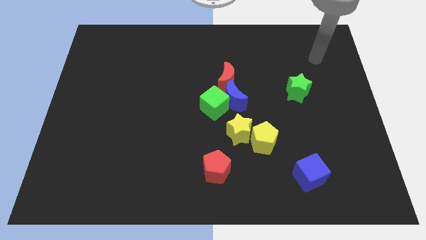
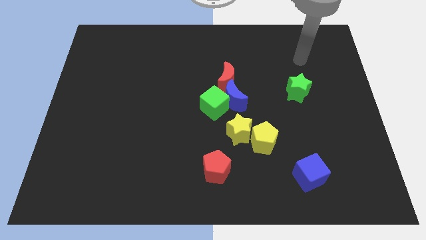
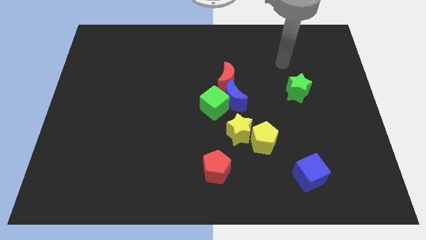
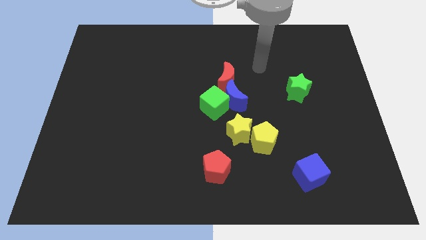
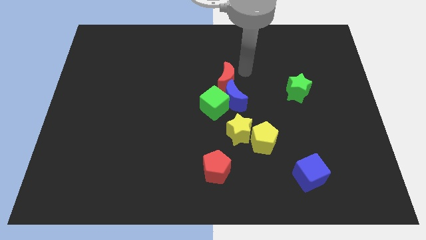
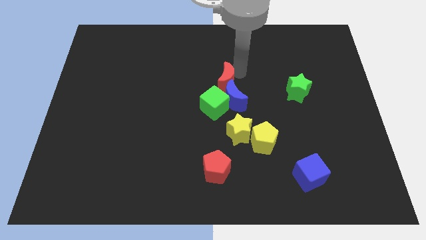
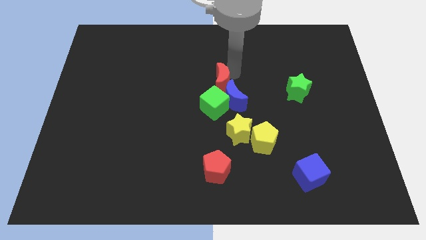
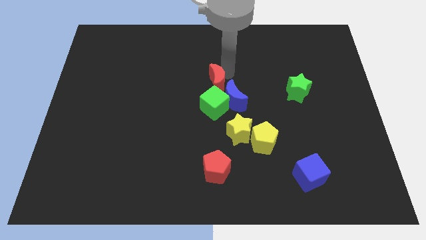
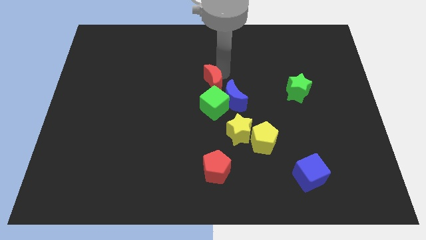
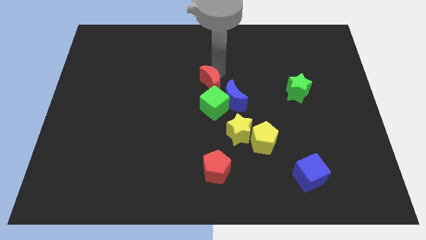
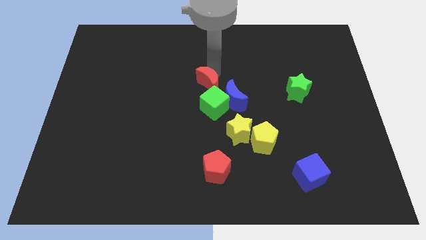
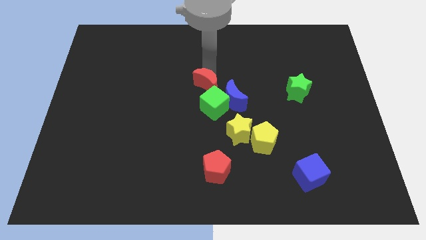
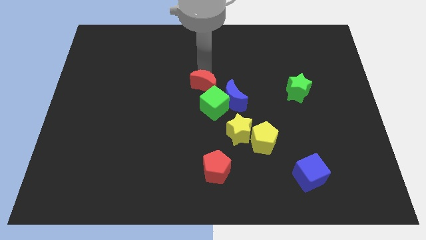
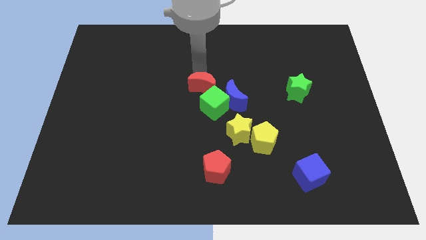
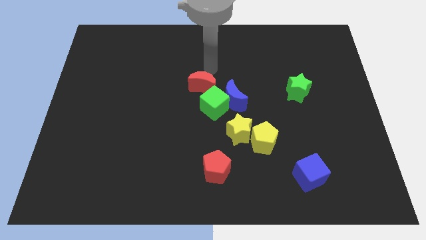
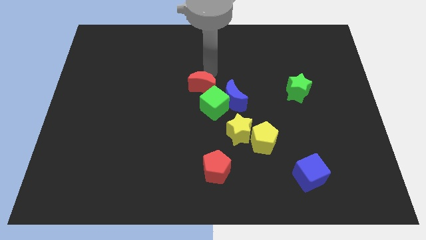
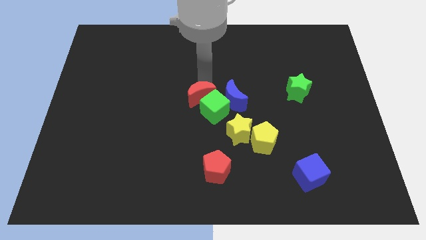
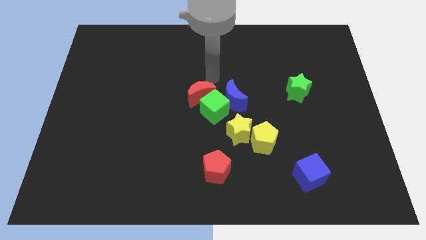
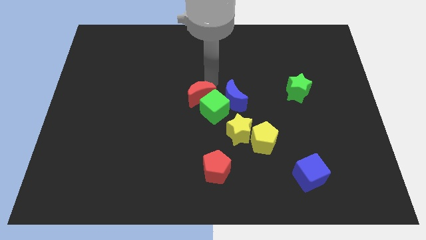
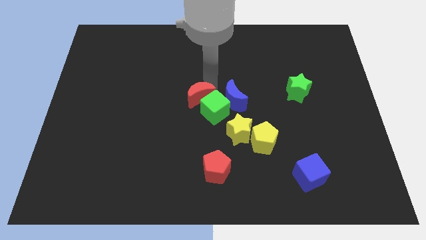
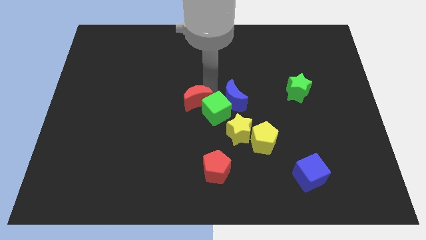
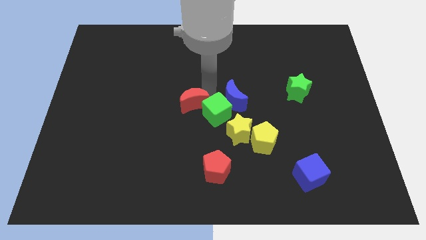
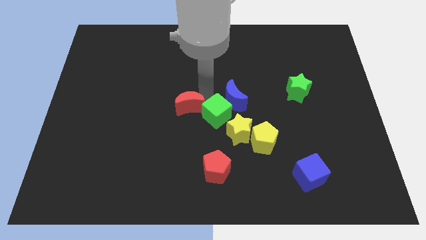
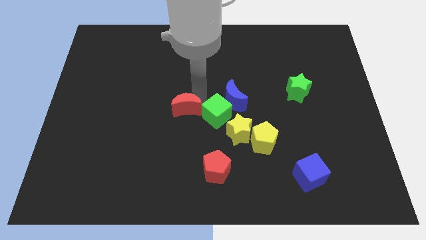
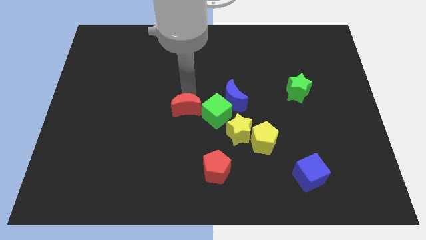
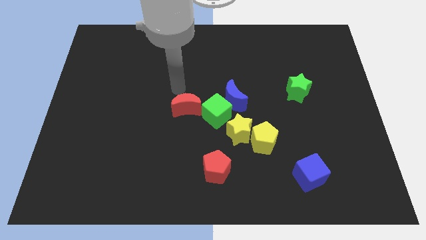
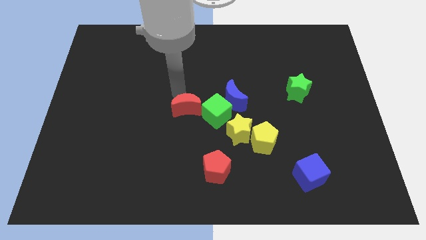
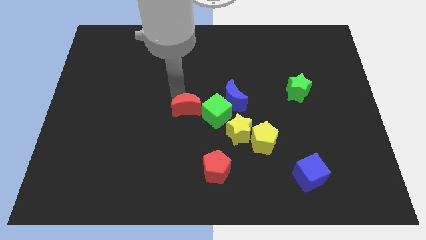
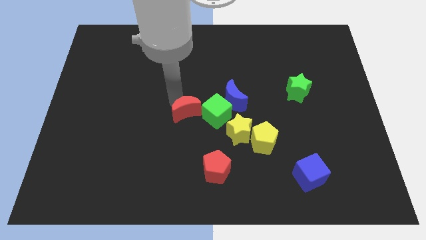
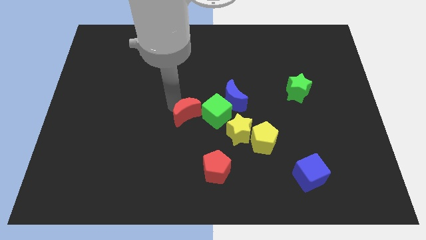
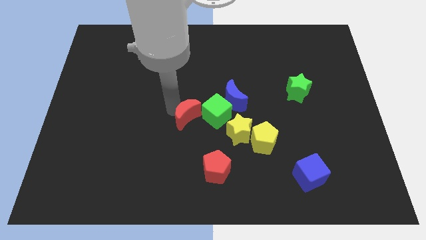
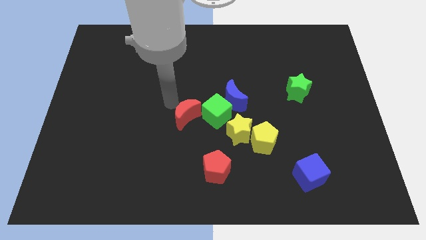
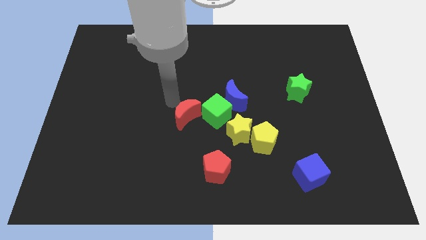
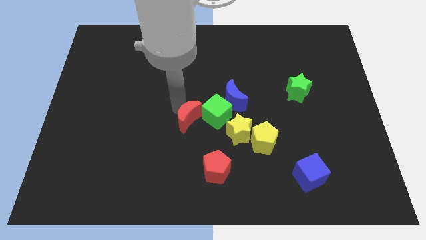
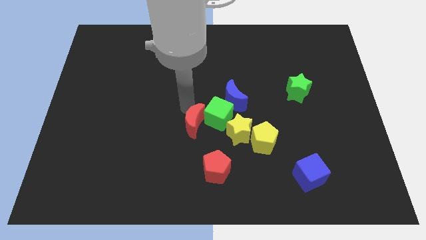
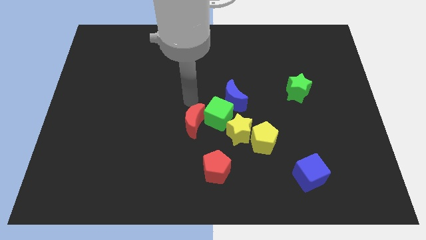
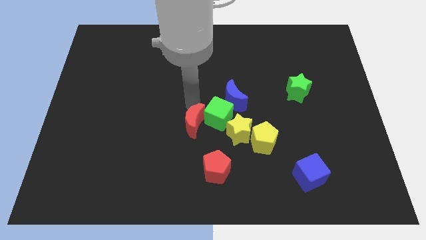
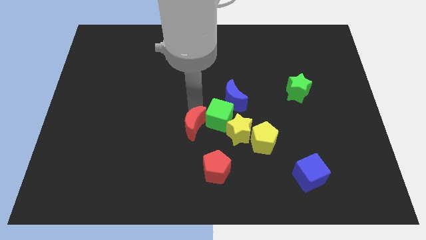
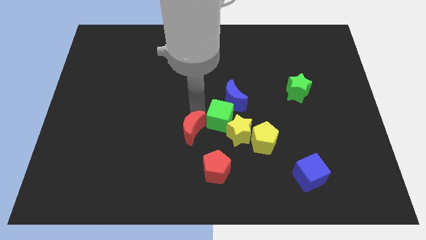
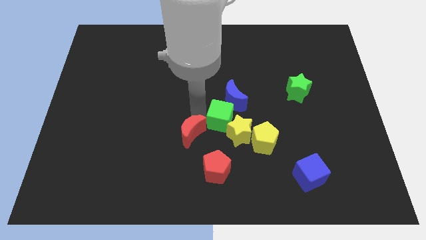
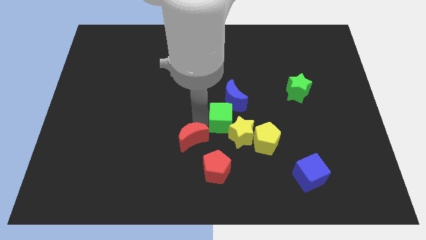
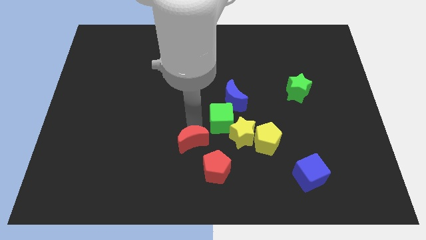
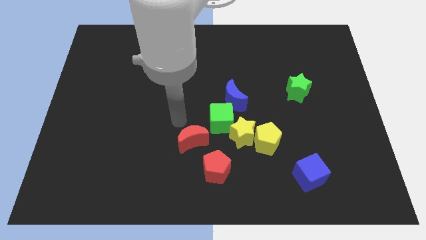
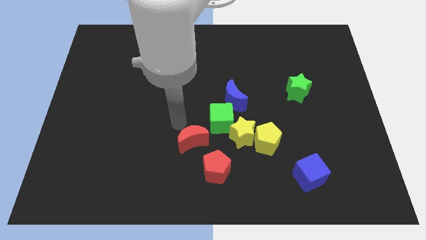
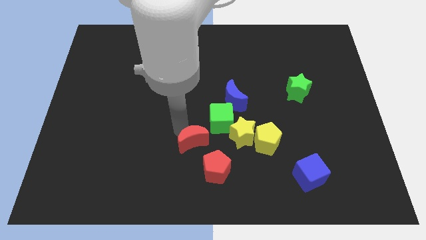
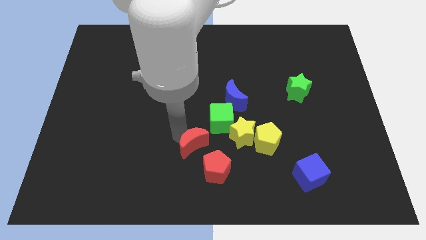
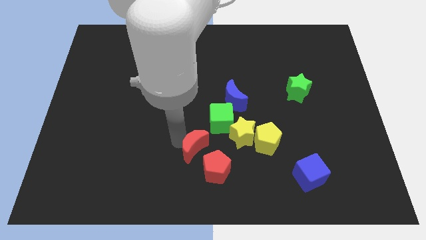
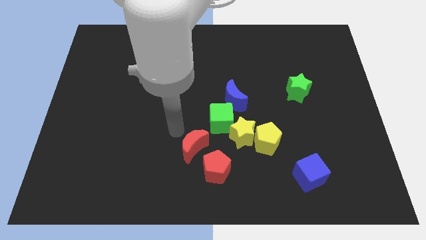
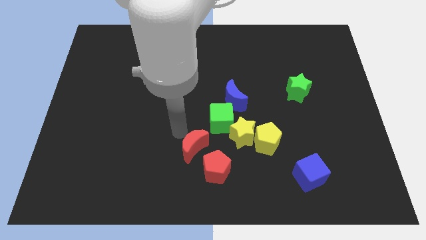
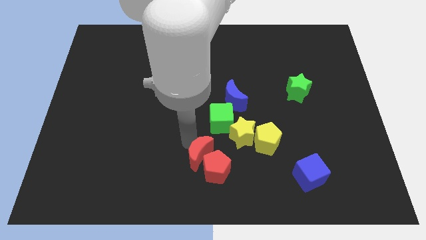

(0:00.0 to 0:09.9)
slide the red moon to the red pentagon

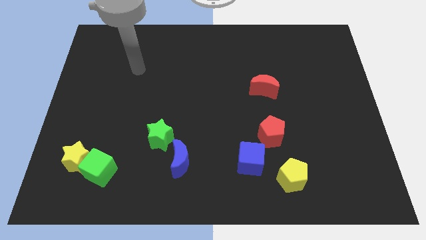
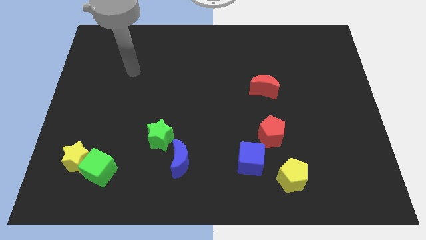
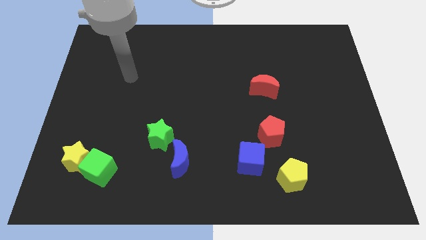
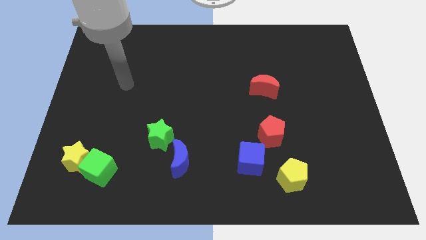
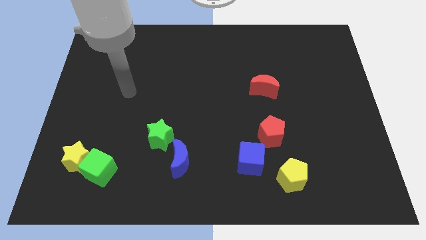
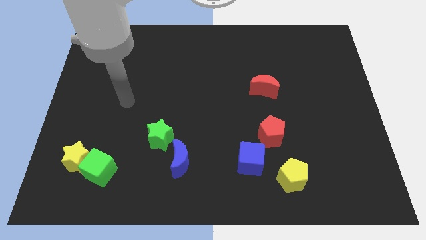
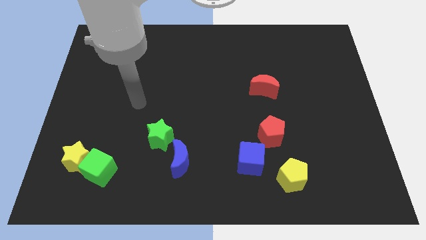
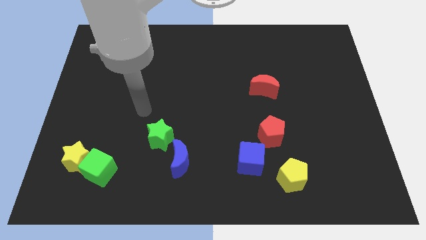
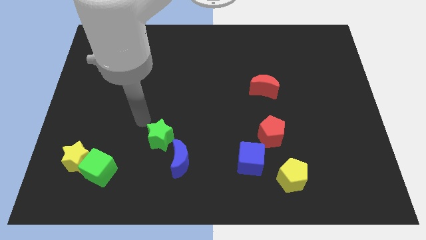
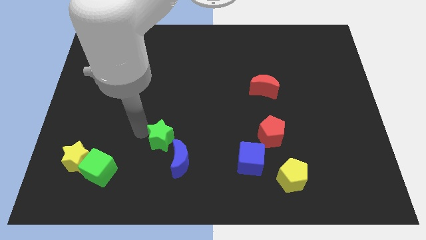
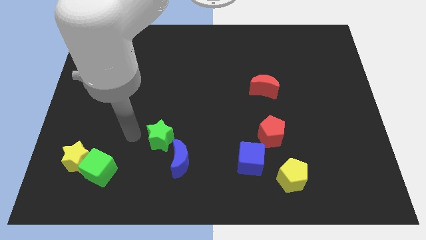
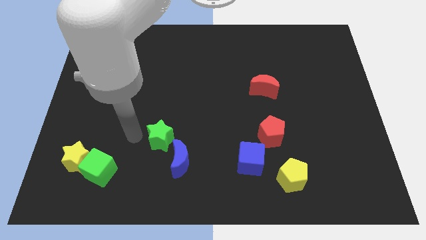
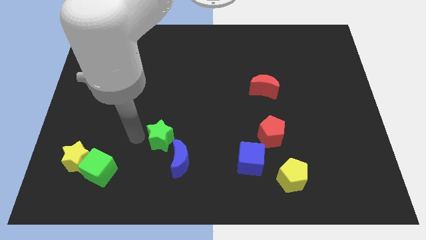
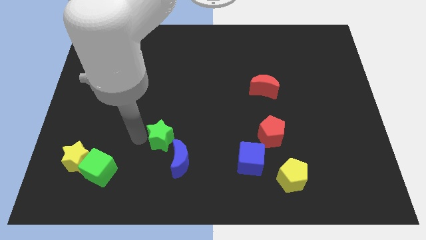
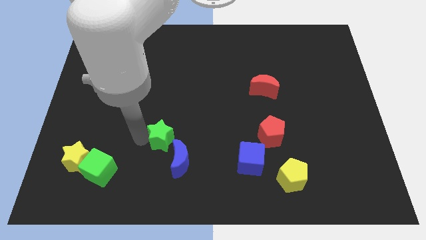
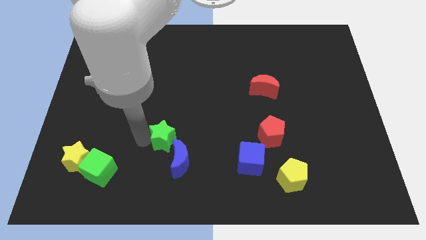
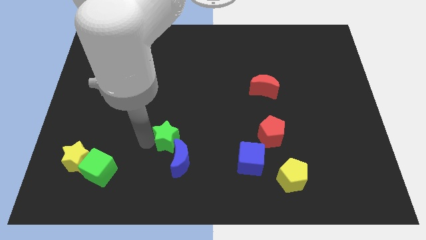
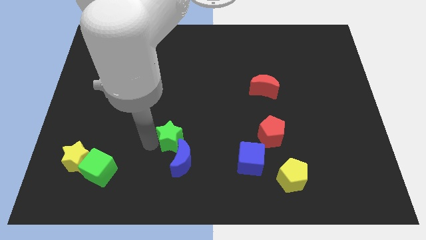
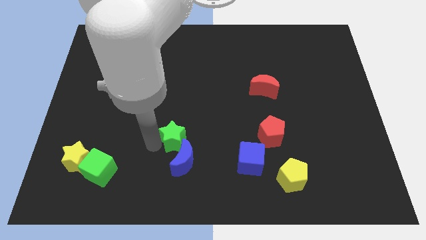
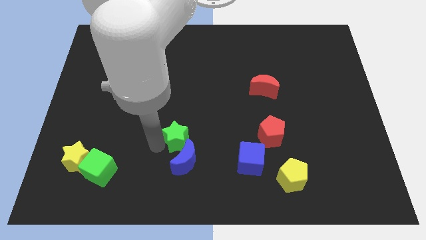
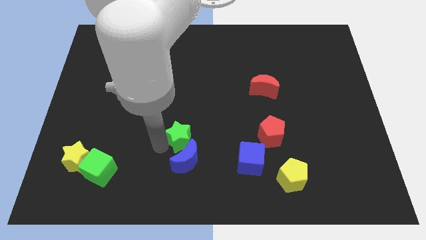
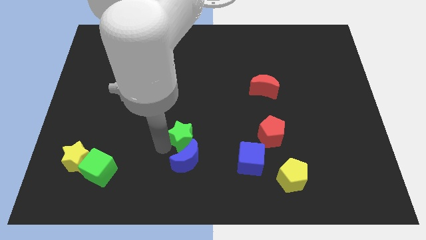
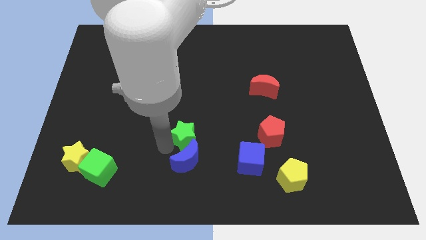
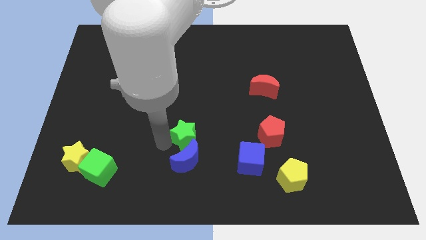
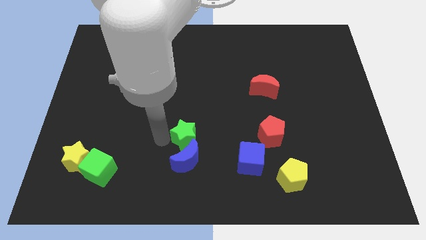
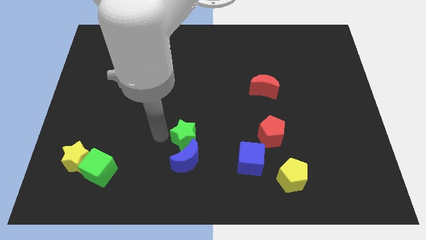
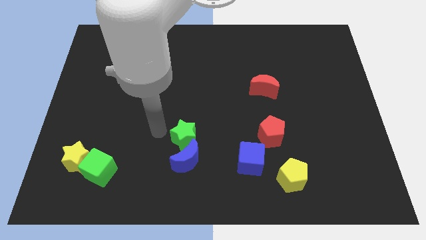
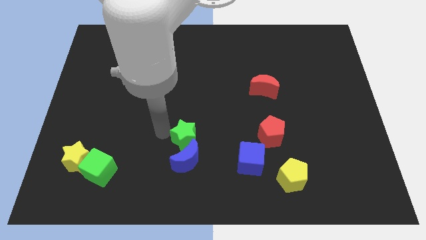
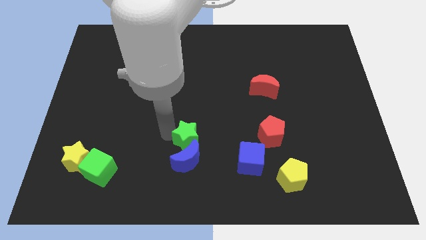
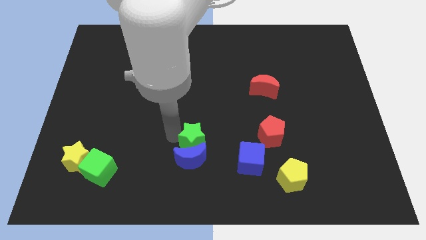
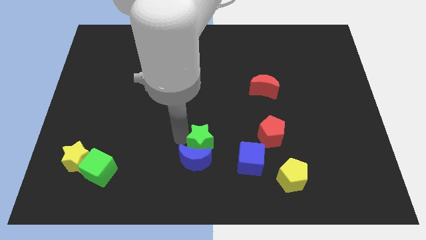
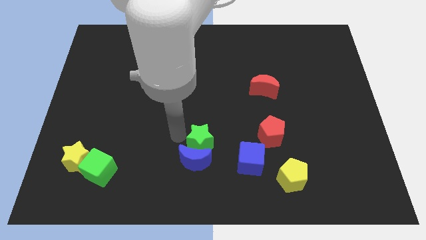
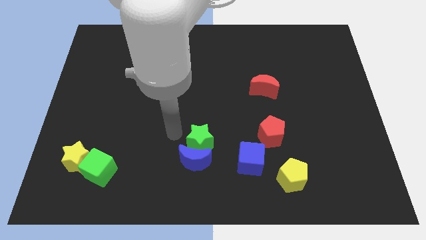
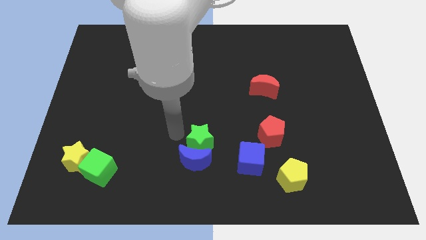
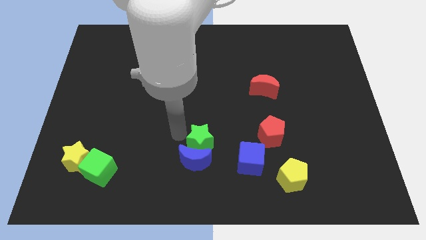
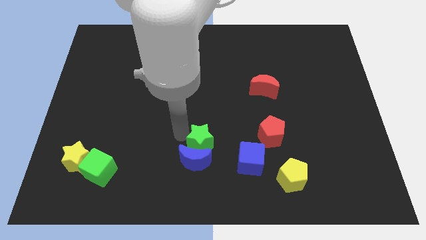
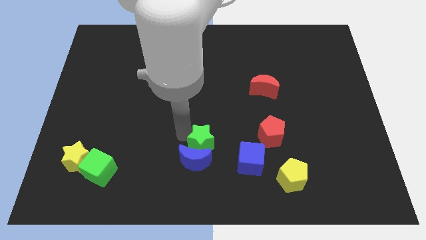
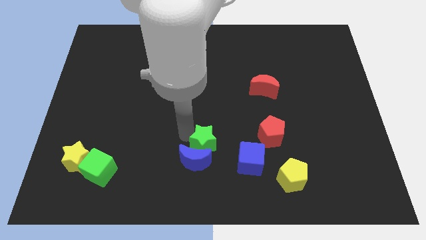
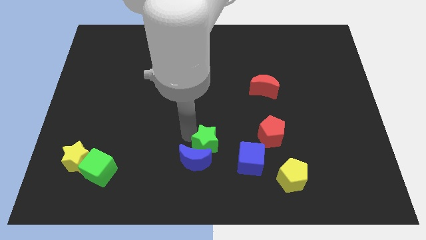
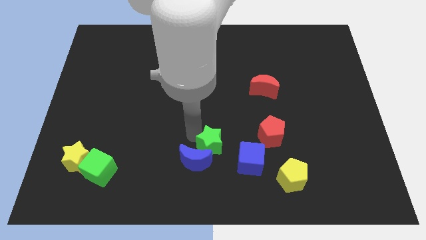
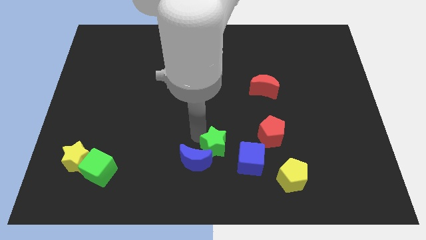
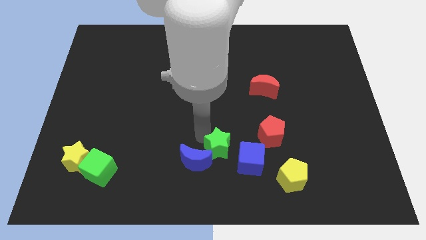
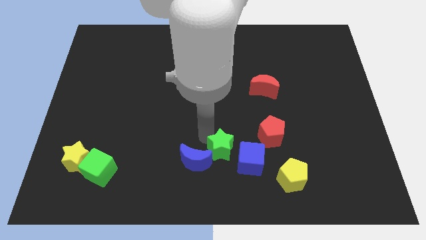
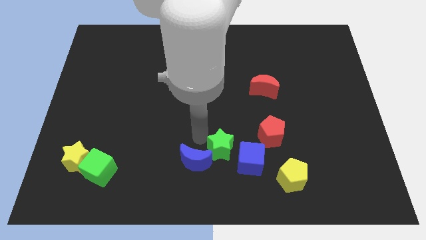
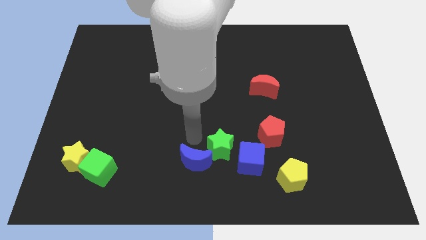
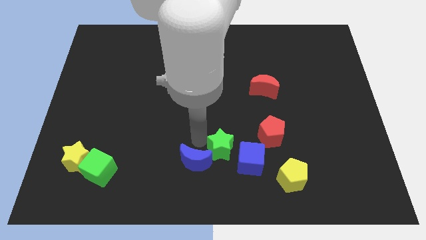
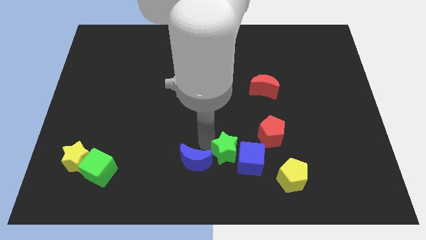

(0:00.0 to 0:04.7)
move the green star next to the blue cube
